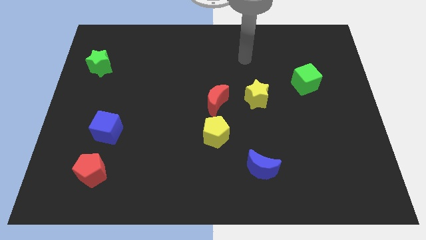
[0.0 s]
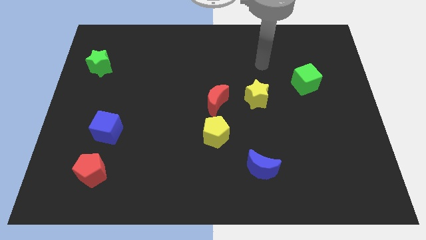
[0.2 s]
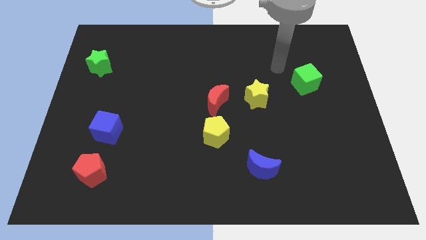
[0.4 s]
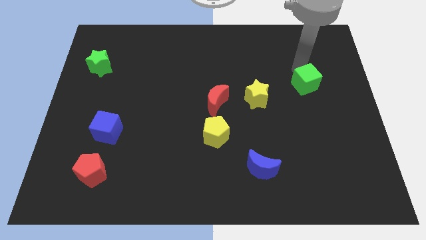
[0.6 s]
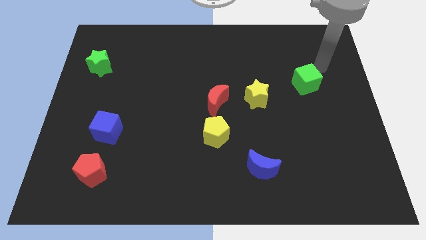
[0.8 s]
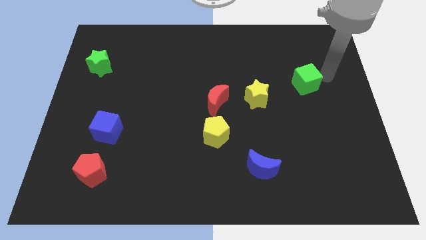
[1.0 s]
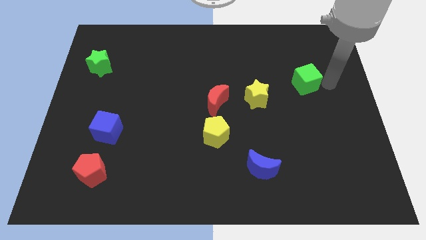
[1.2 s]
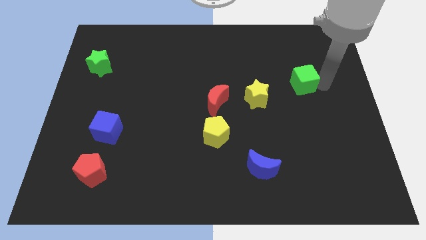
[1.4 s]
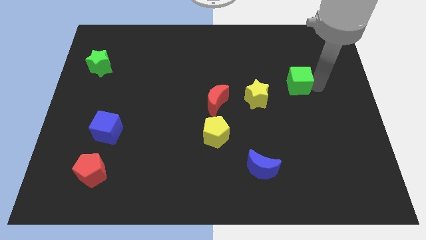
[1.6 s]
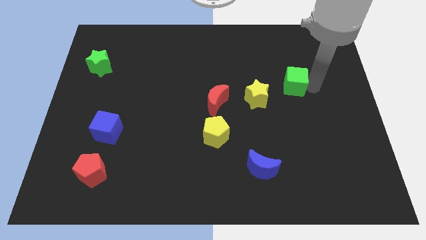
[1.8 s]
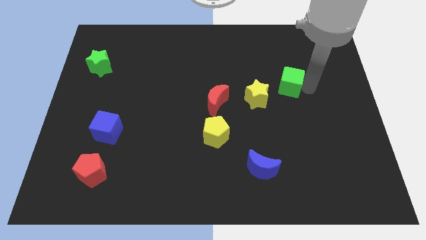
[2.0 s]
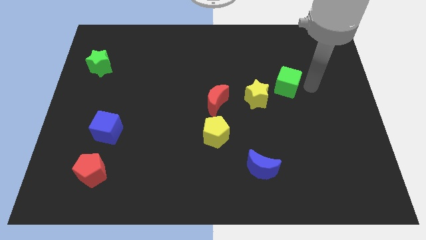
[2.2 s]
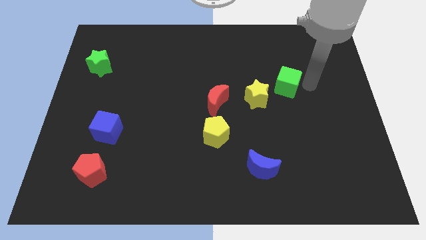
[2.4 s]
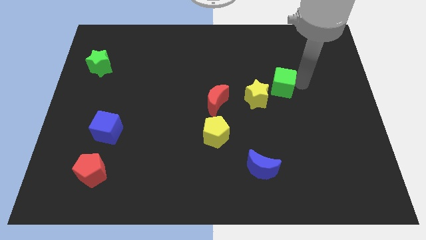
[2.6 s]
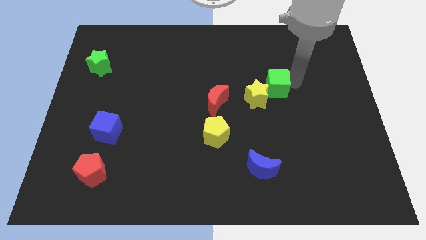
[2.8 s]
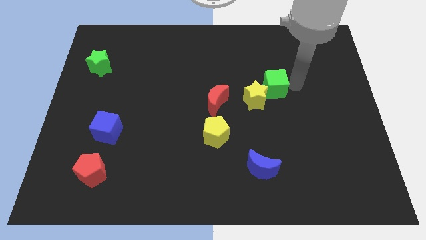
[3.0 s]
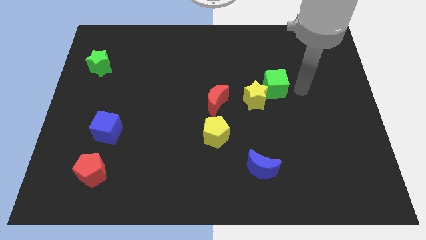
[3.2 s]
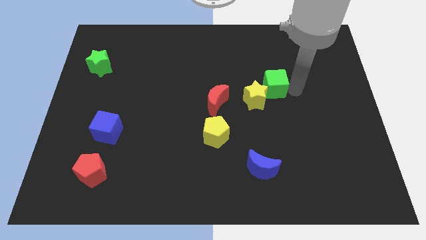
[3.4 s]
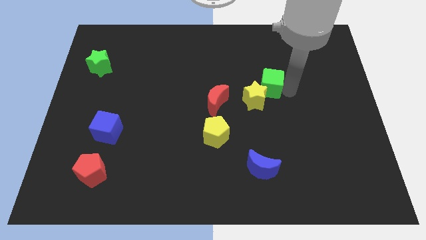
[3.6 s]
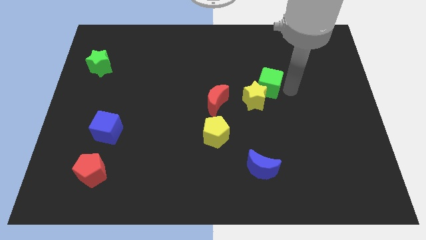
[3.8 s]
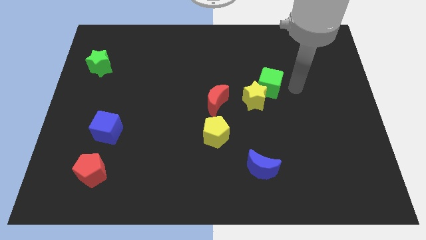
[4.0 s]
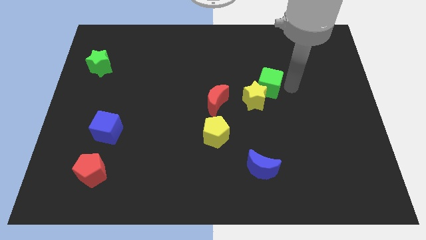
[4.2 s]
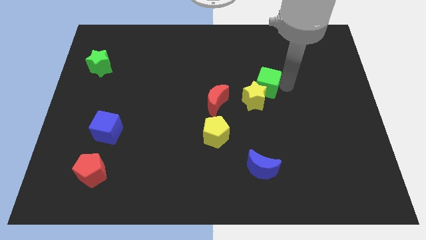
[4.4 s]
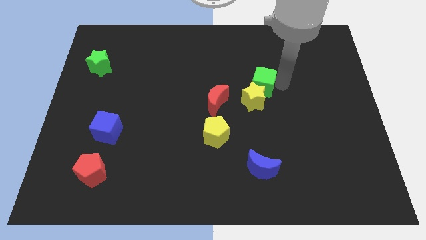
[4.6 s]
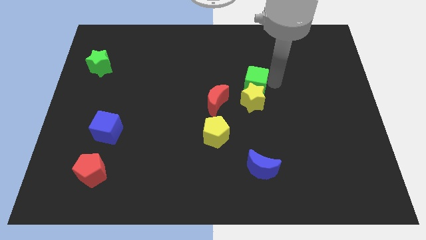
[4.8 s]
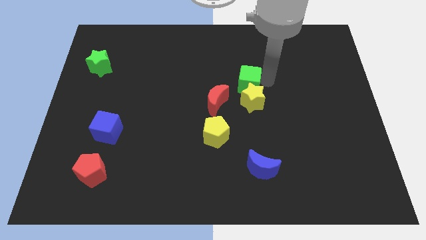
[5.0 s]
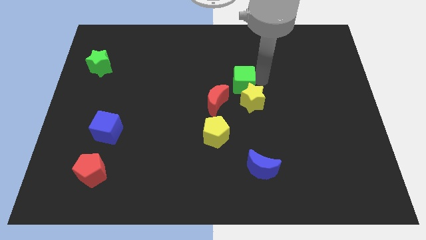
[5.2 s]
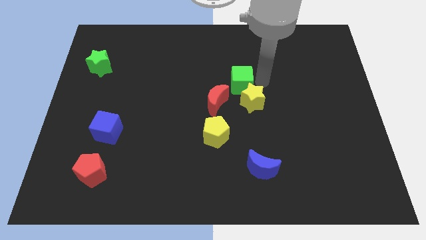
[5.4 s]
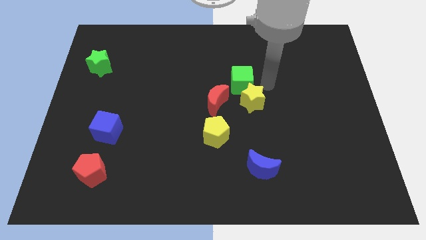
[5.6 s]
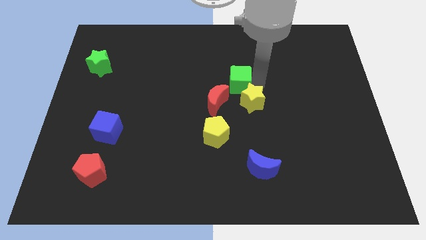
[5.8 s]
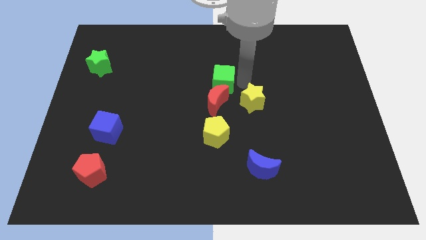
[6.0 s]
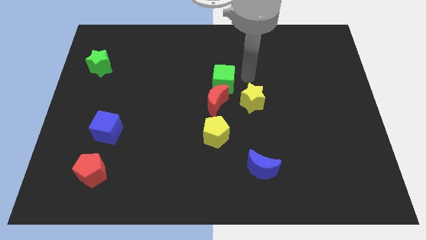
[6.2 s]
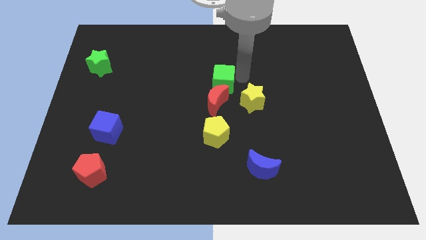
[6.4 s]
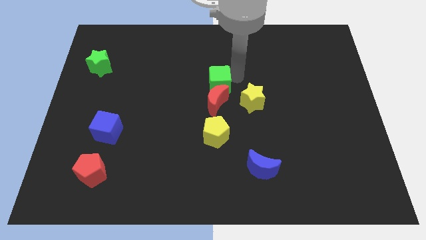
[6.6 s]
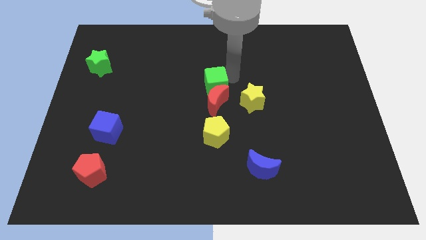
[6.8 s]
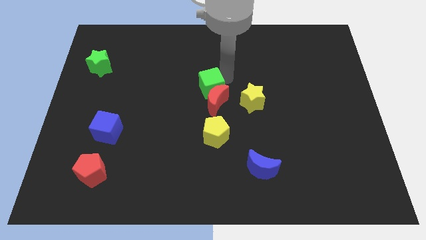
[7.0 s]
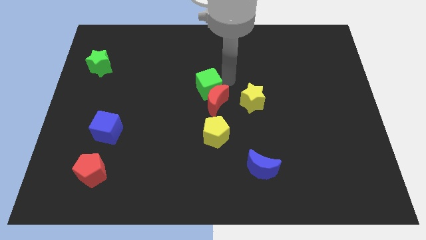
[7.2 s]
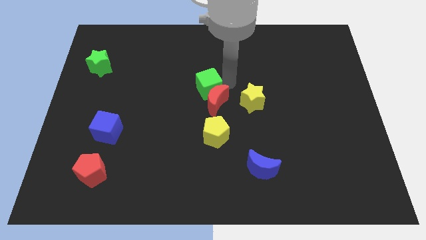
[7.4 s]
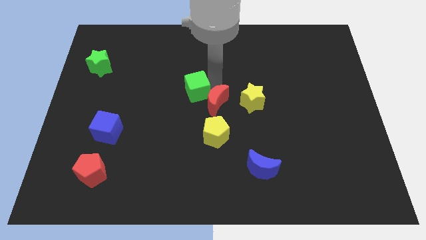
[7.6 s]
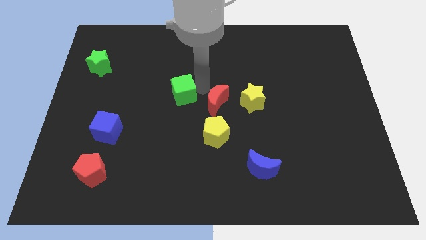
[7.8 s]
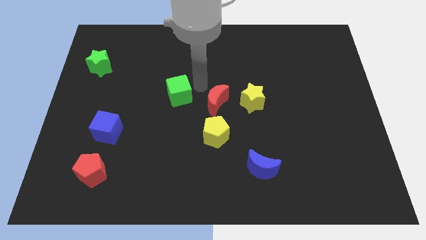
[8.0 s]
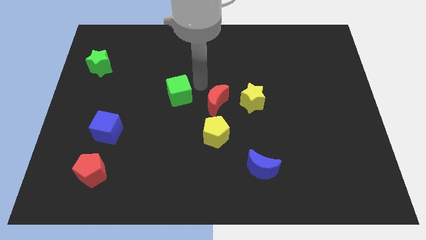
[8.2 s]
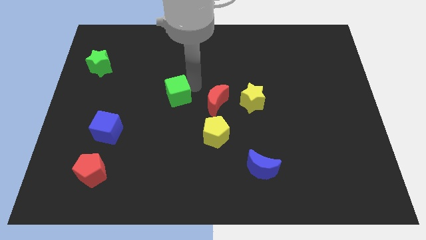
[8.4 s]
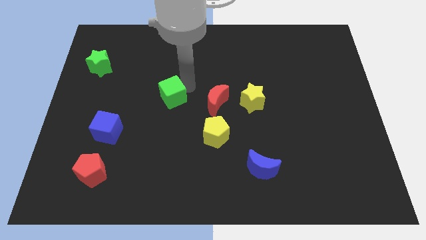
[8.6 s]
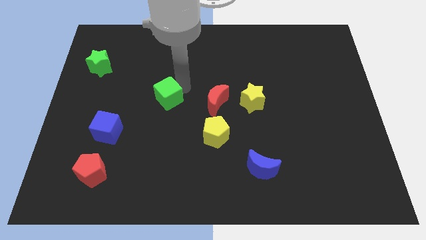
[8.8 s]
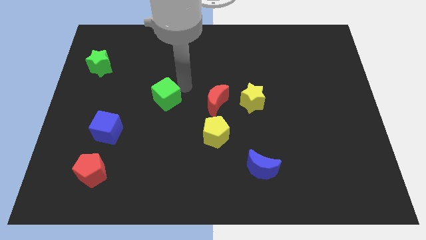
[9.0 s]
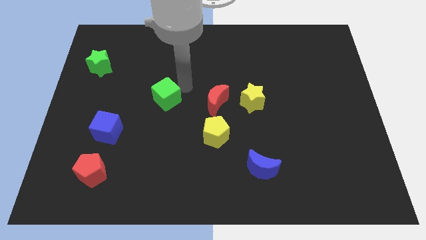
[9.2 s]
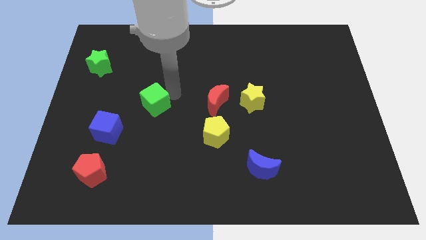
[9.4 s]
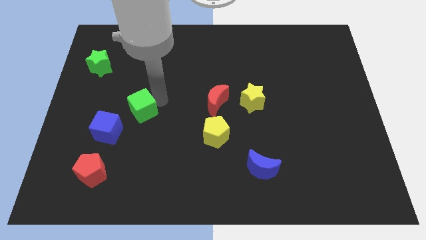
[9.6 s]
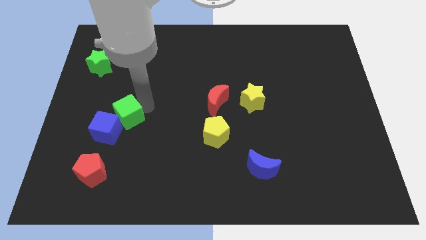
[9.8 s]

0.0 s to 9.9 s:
push the green cube next to the blue cube

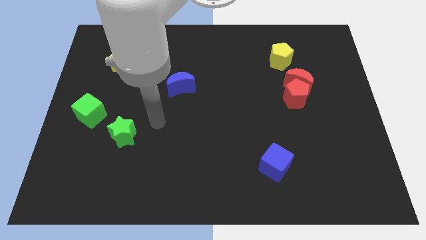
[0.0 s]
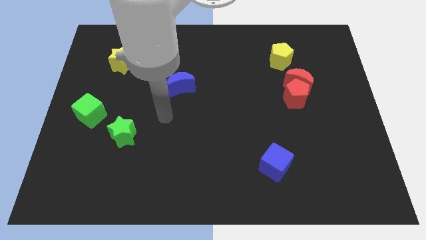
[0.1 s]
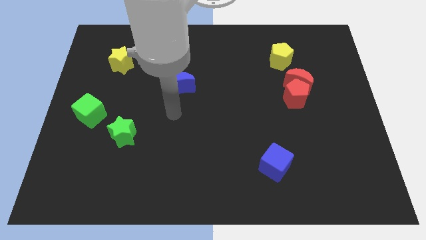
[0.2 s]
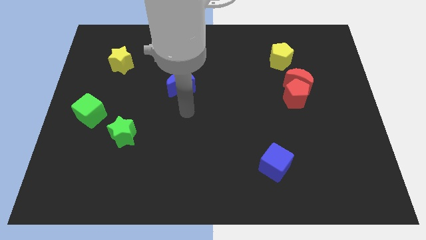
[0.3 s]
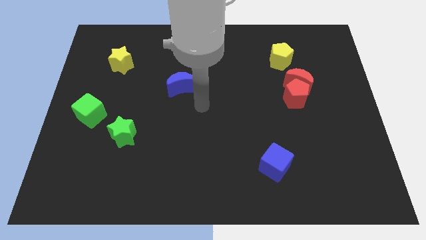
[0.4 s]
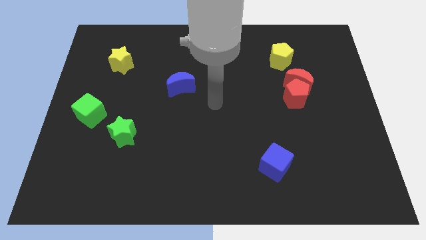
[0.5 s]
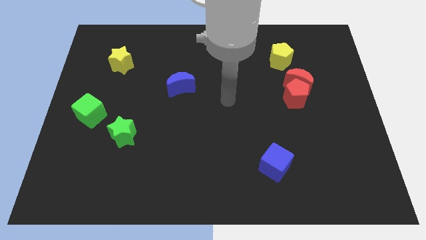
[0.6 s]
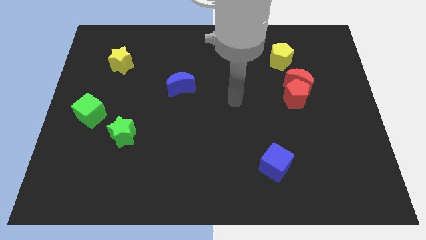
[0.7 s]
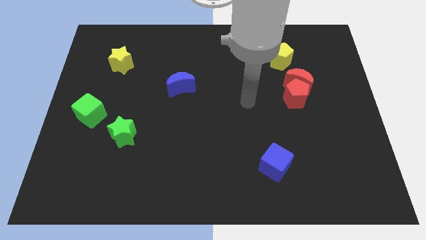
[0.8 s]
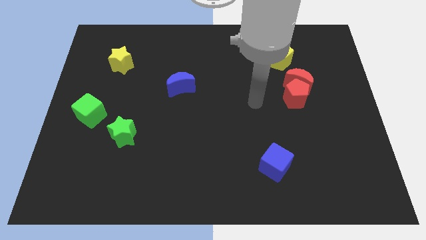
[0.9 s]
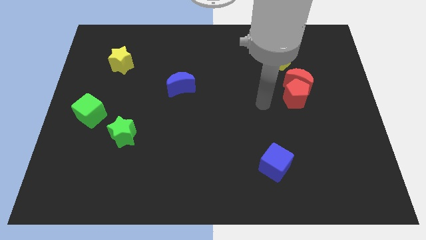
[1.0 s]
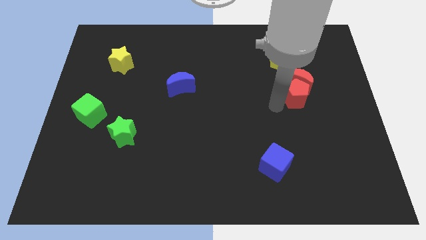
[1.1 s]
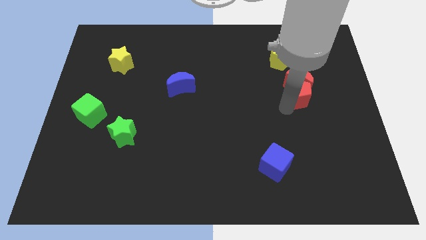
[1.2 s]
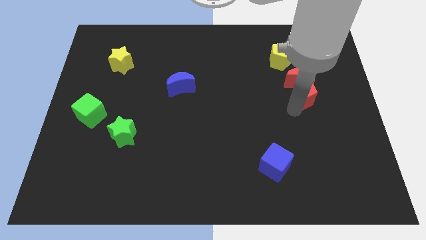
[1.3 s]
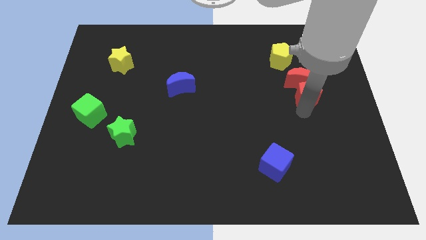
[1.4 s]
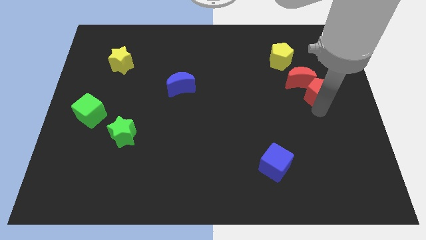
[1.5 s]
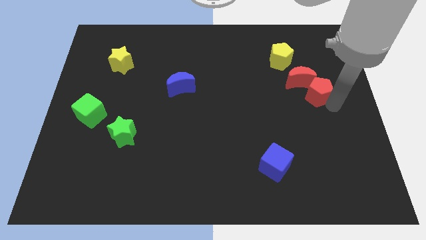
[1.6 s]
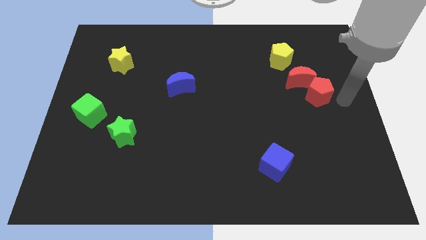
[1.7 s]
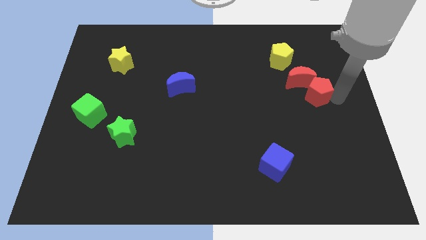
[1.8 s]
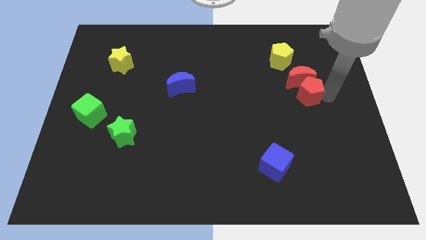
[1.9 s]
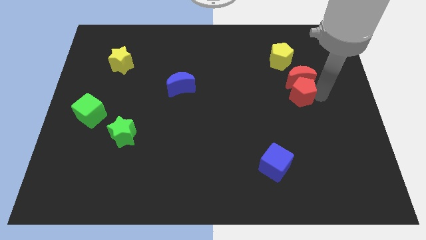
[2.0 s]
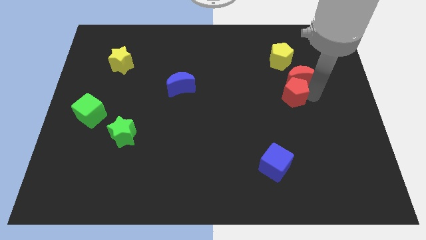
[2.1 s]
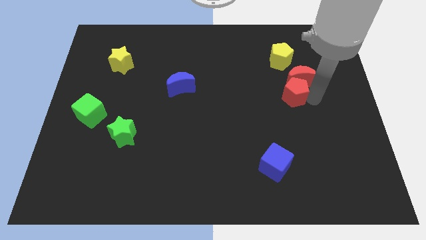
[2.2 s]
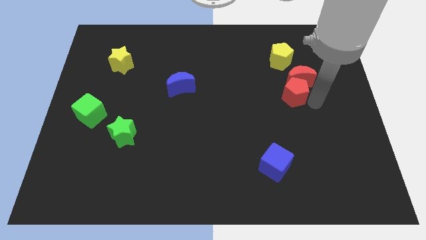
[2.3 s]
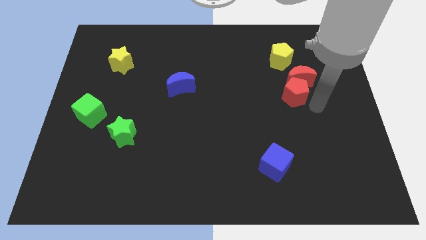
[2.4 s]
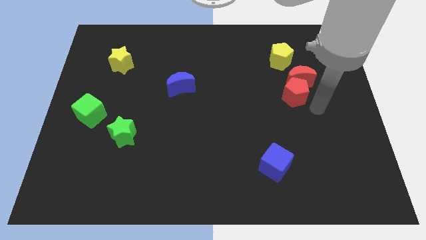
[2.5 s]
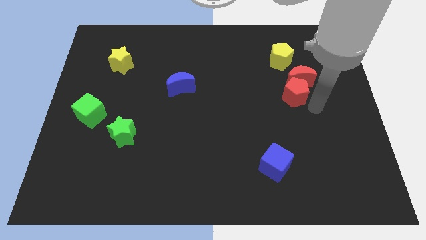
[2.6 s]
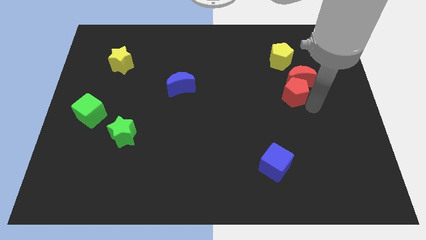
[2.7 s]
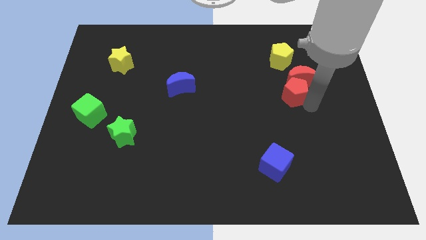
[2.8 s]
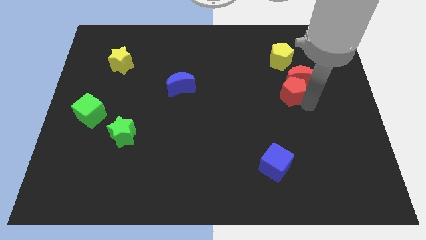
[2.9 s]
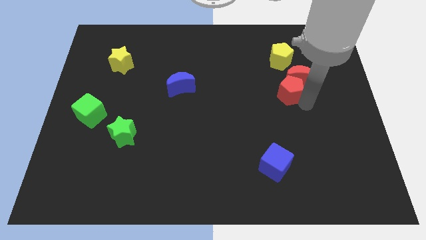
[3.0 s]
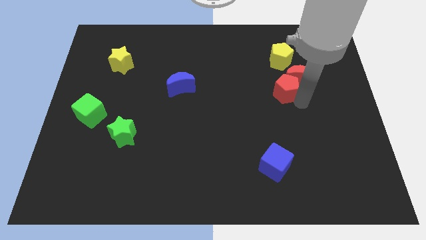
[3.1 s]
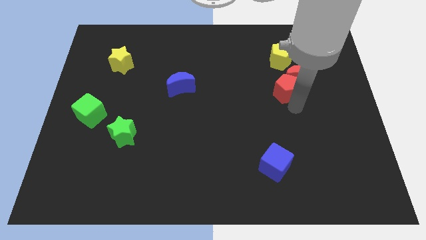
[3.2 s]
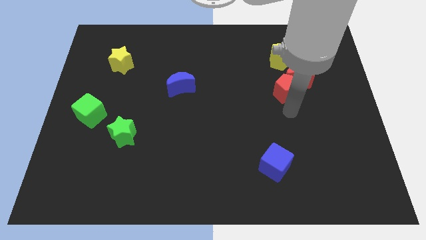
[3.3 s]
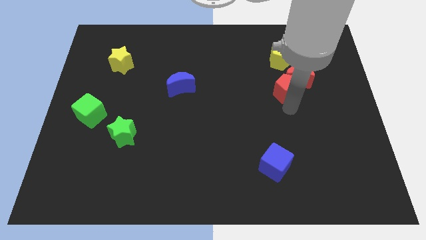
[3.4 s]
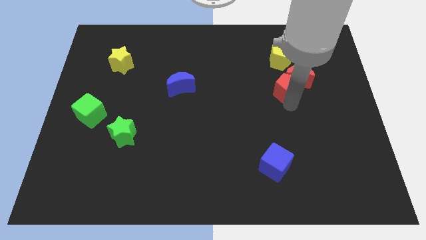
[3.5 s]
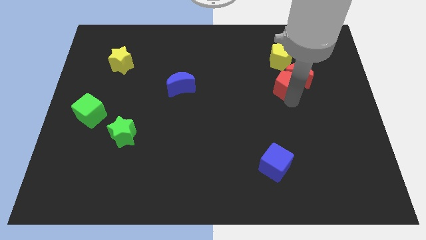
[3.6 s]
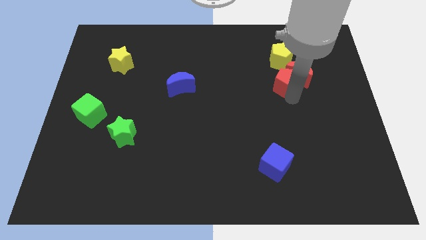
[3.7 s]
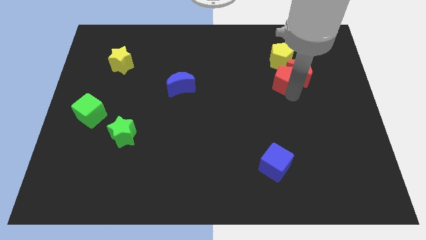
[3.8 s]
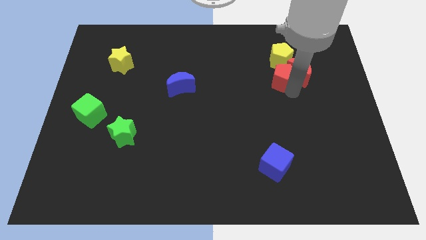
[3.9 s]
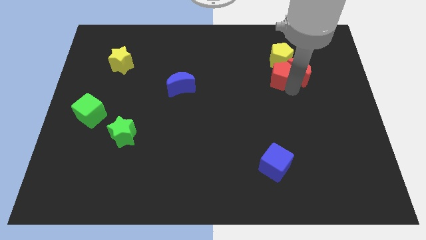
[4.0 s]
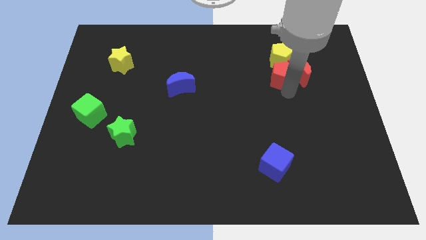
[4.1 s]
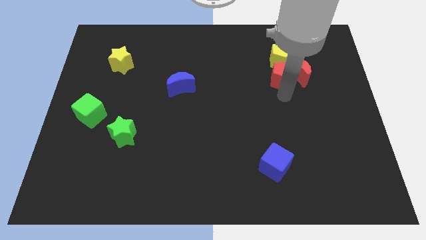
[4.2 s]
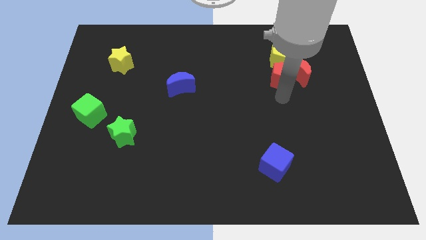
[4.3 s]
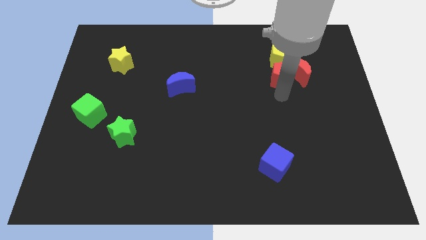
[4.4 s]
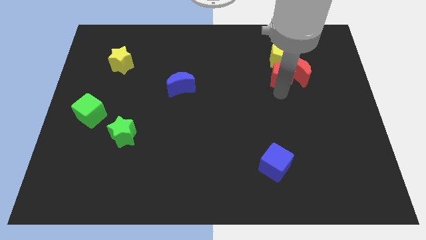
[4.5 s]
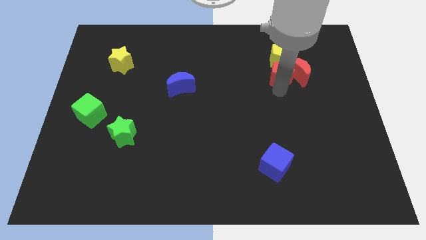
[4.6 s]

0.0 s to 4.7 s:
push the red pentagon close to the yellow pentagon
